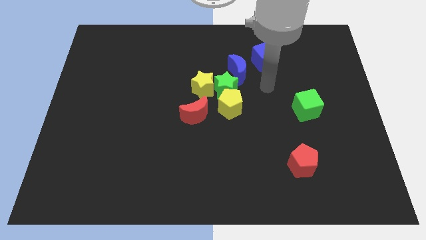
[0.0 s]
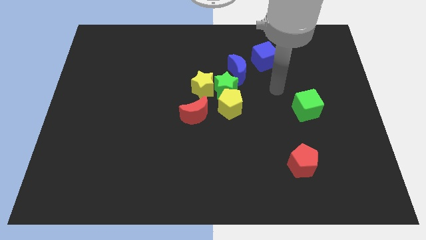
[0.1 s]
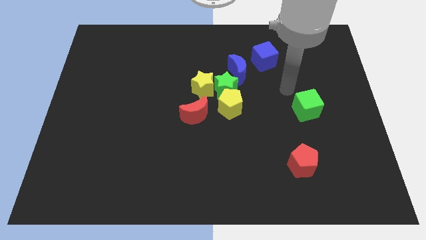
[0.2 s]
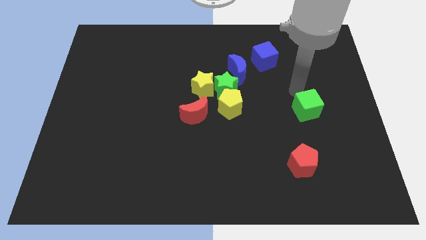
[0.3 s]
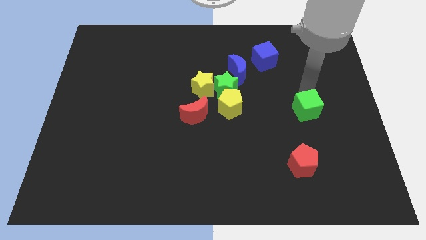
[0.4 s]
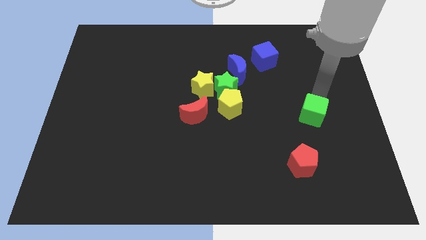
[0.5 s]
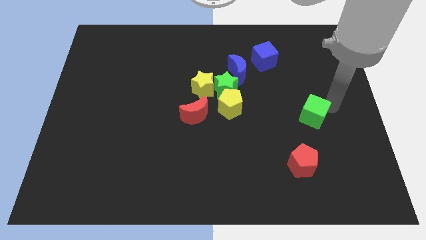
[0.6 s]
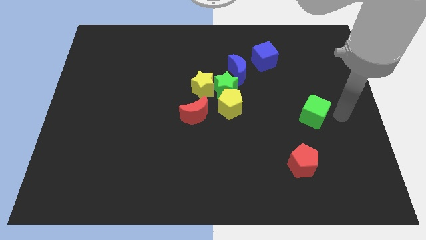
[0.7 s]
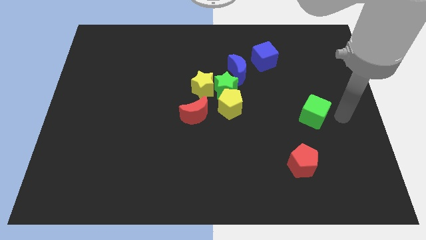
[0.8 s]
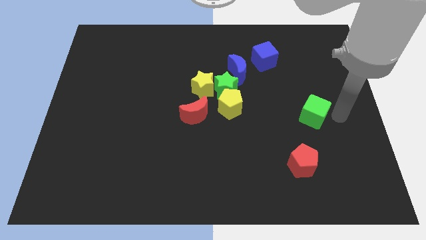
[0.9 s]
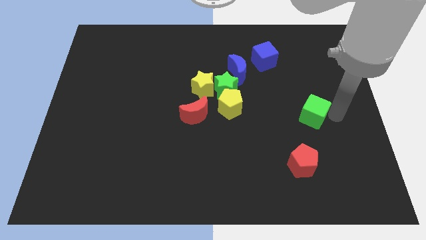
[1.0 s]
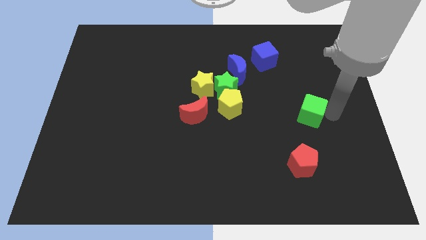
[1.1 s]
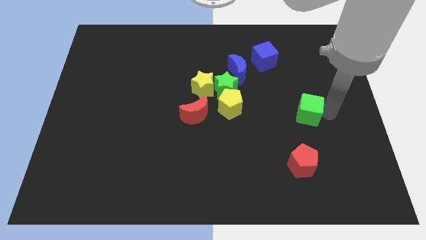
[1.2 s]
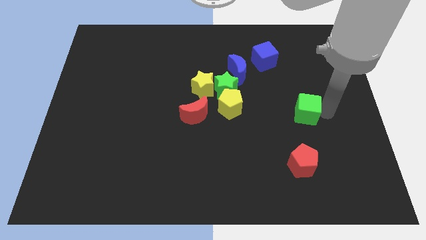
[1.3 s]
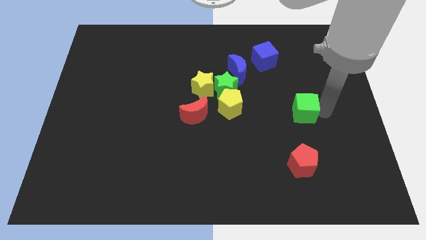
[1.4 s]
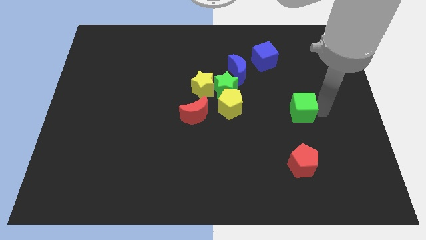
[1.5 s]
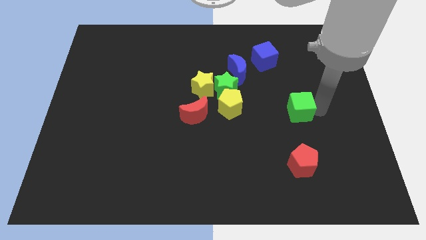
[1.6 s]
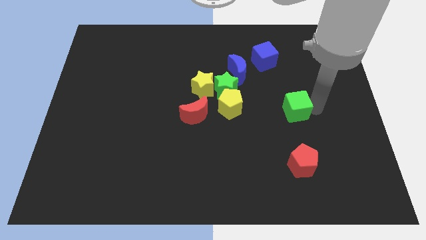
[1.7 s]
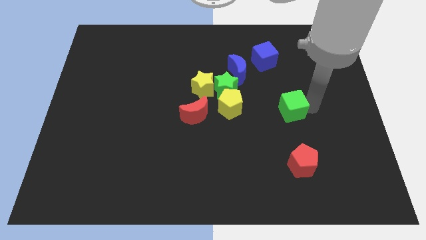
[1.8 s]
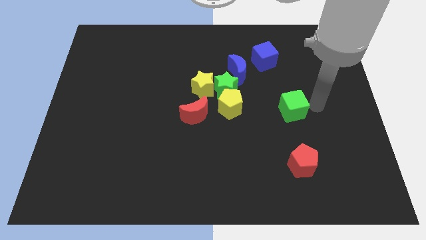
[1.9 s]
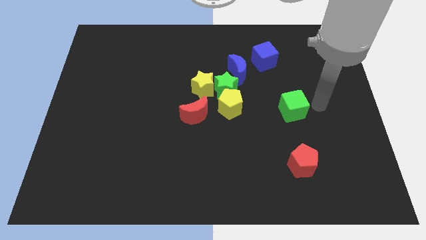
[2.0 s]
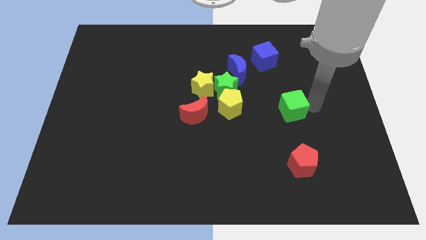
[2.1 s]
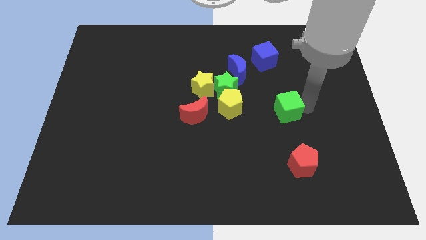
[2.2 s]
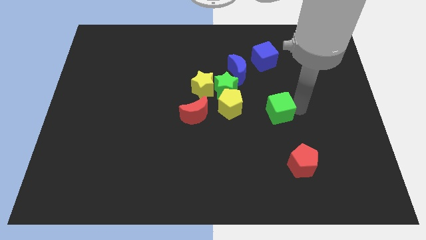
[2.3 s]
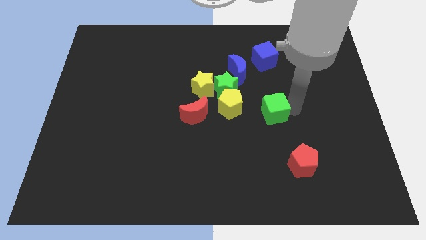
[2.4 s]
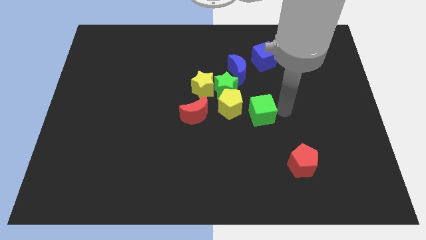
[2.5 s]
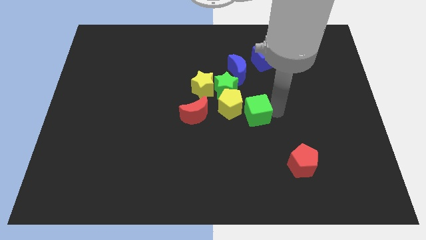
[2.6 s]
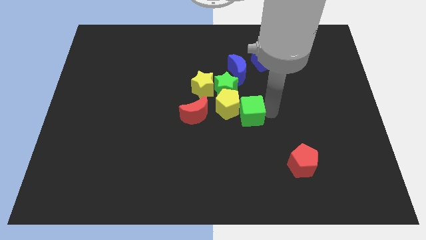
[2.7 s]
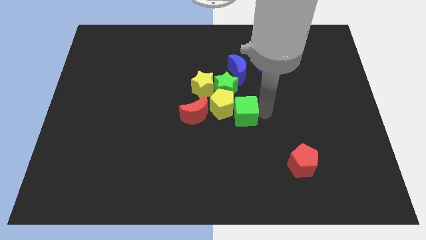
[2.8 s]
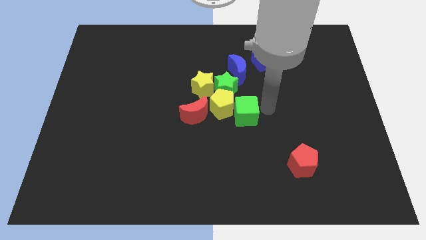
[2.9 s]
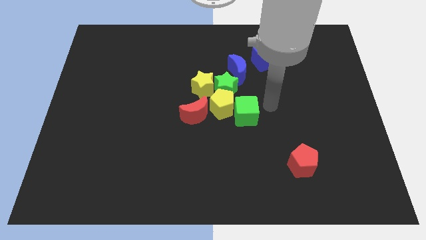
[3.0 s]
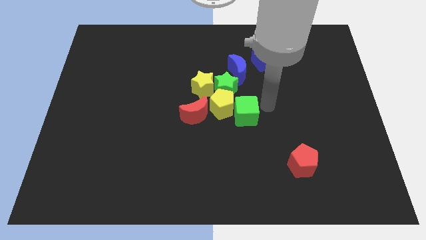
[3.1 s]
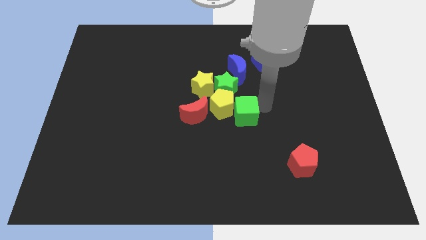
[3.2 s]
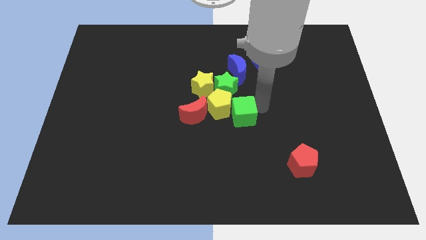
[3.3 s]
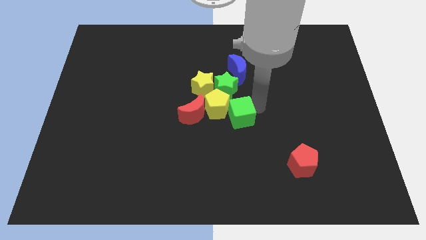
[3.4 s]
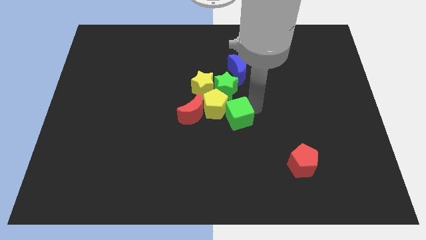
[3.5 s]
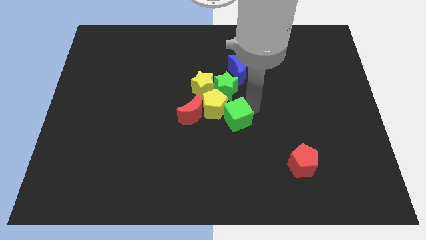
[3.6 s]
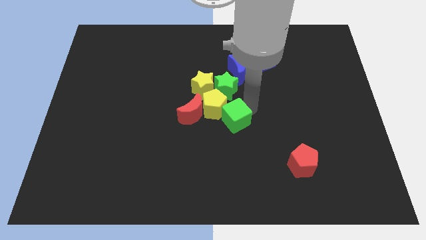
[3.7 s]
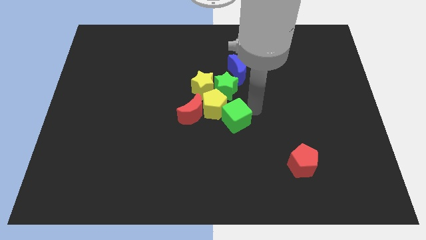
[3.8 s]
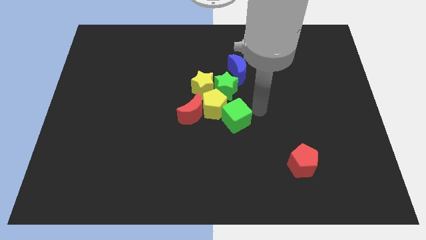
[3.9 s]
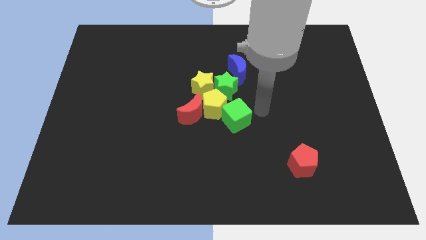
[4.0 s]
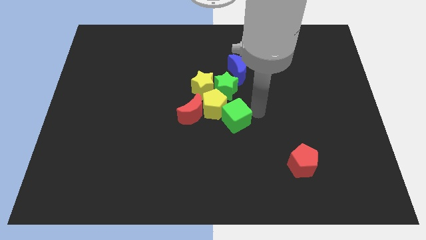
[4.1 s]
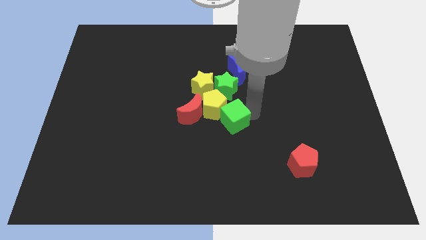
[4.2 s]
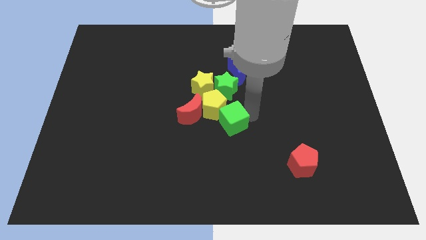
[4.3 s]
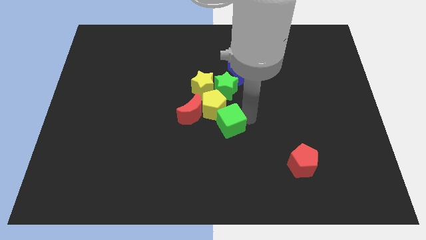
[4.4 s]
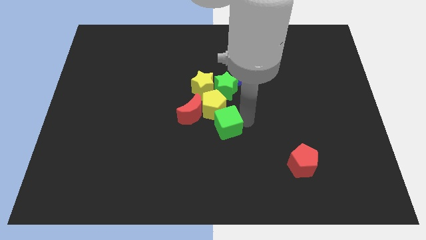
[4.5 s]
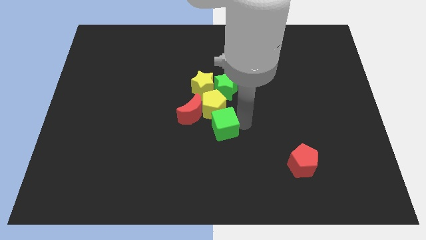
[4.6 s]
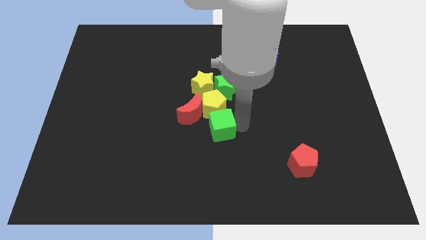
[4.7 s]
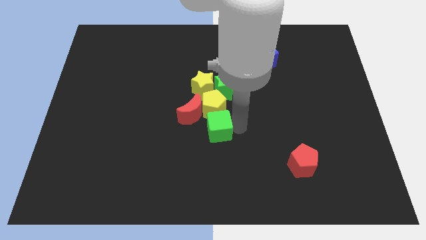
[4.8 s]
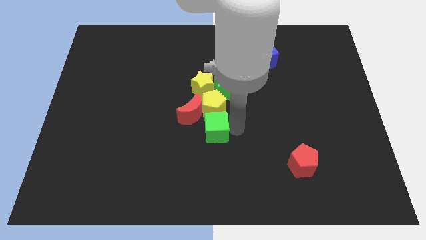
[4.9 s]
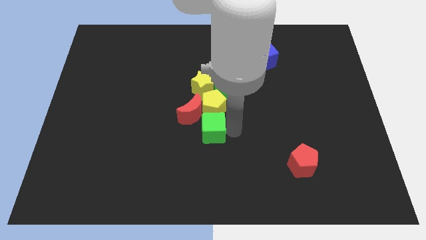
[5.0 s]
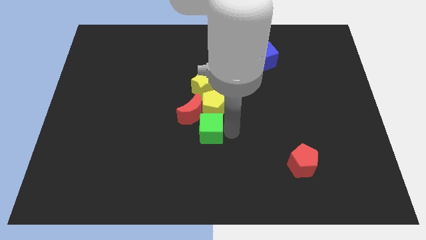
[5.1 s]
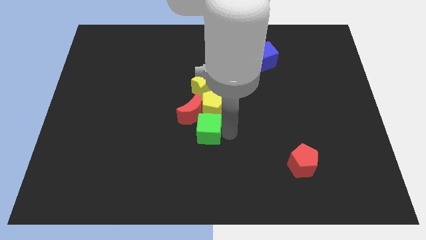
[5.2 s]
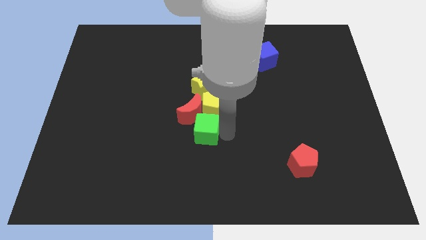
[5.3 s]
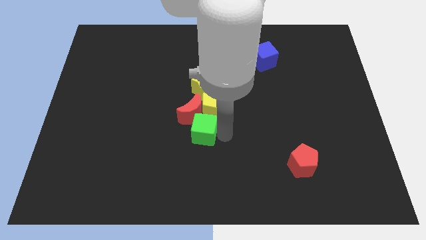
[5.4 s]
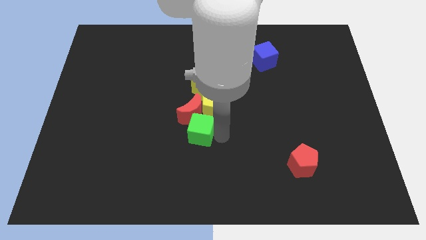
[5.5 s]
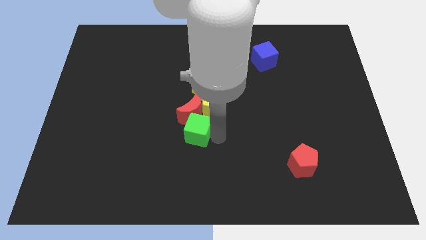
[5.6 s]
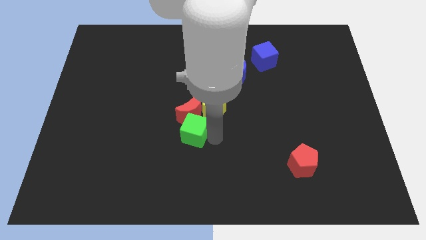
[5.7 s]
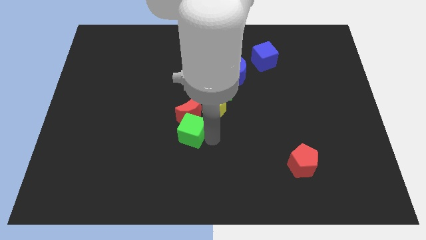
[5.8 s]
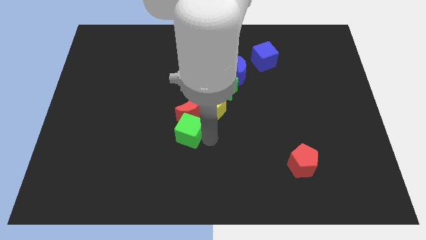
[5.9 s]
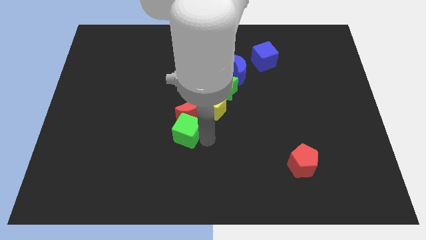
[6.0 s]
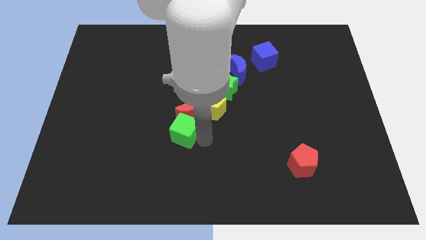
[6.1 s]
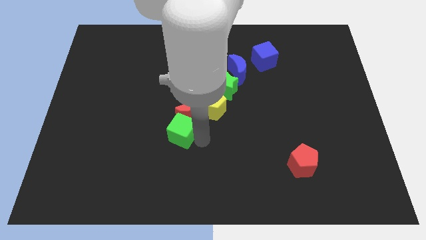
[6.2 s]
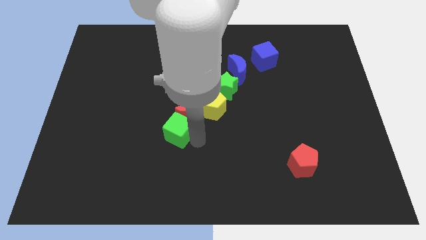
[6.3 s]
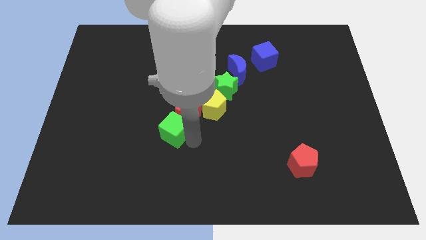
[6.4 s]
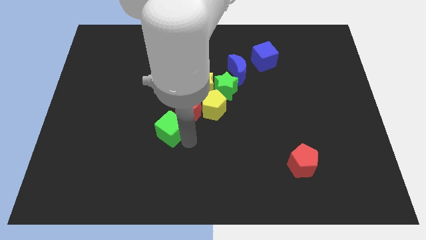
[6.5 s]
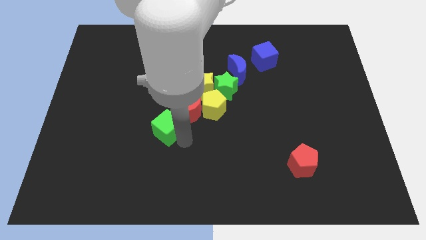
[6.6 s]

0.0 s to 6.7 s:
slide the green cube to the left side of the red moon
